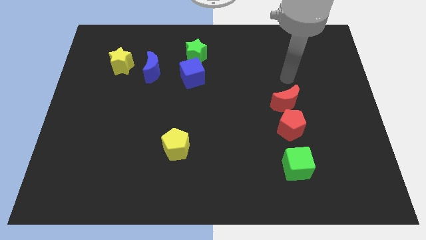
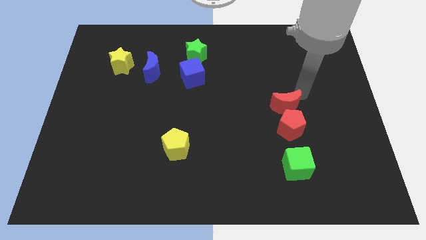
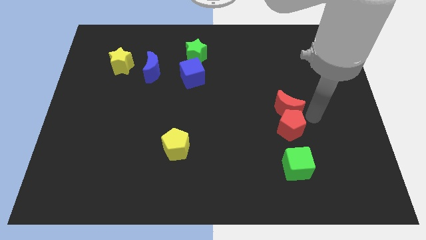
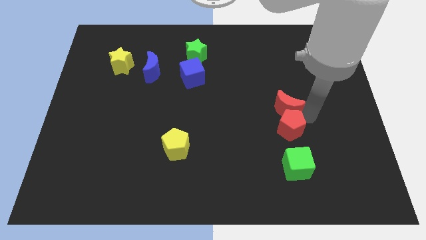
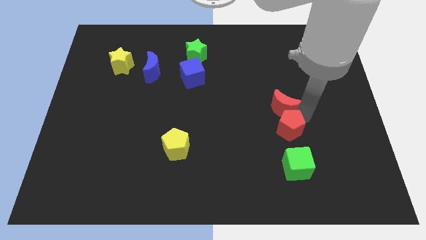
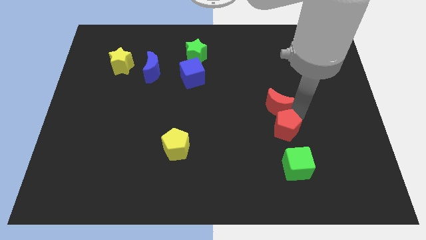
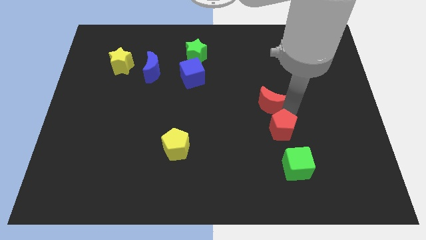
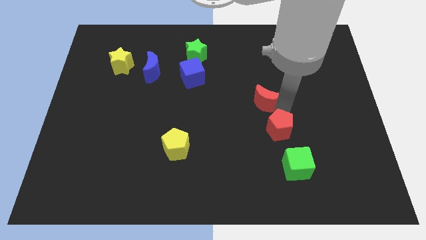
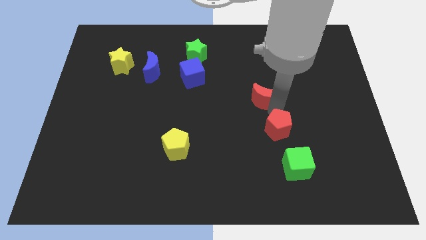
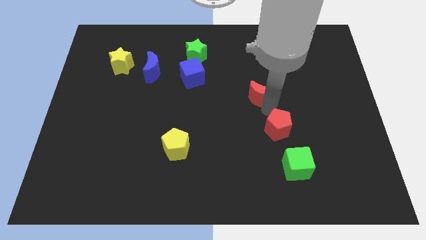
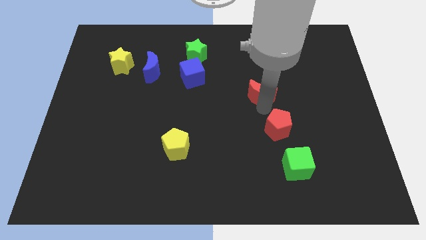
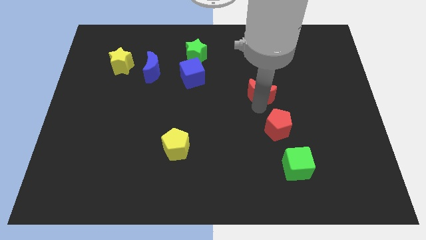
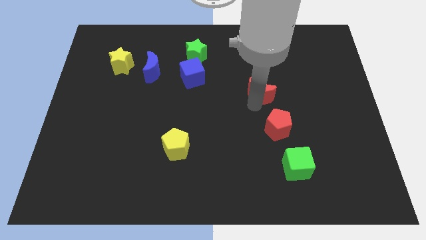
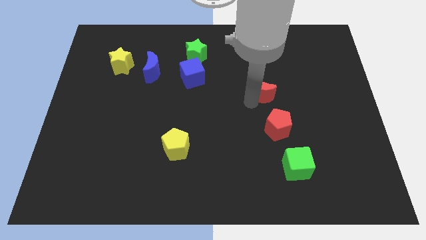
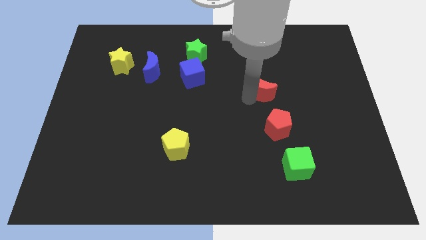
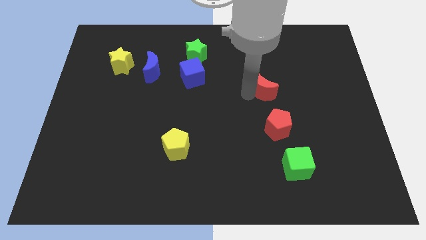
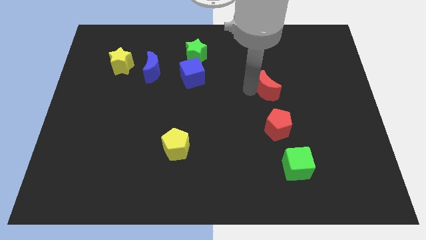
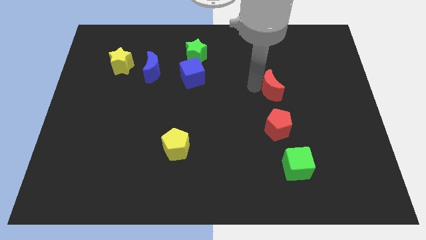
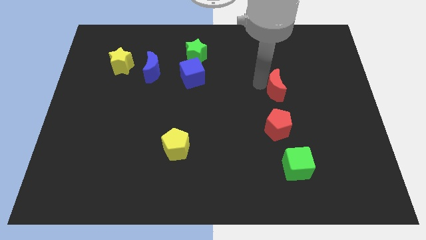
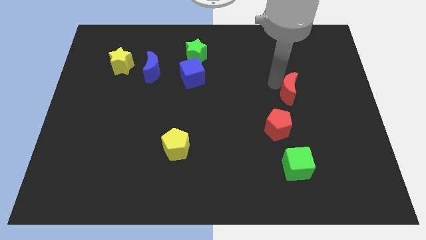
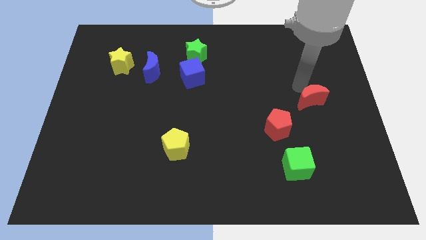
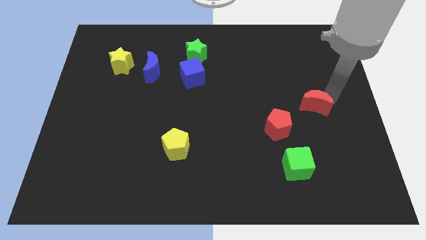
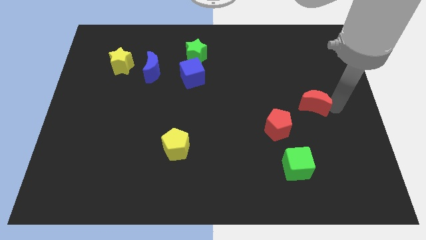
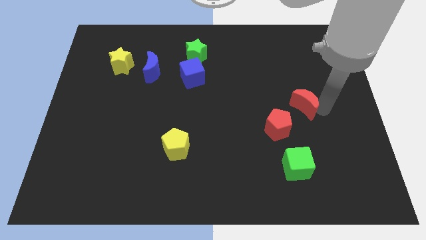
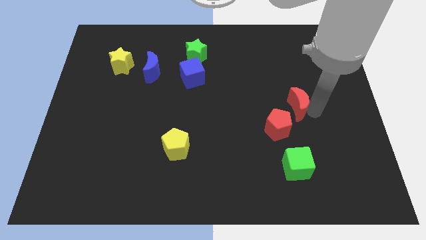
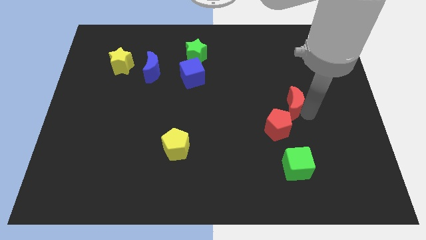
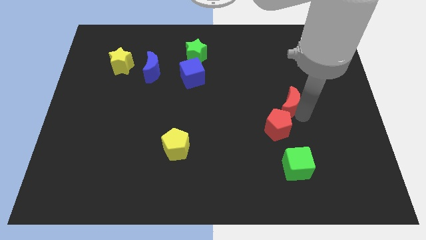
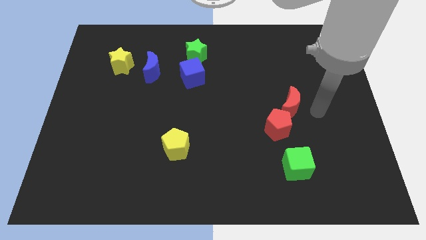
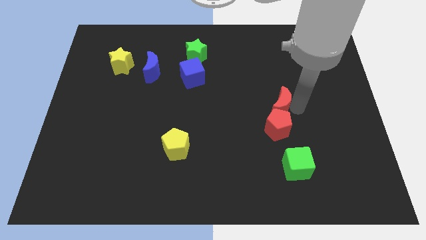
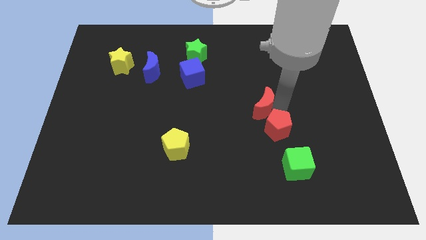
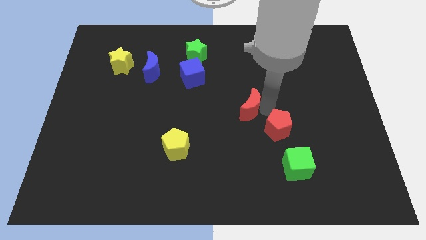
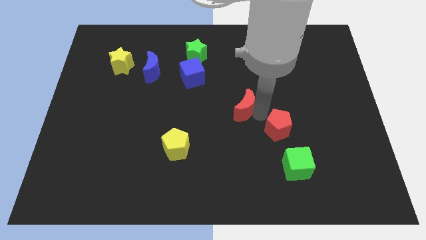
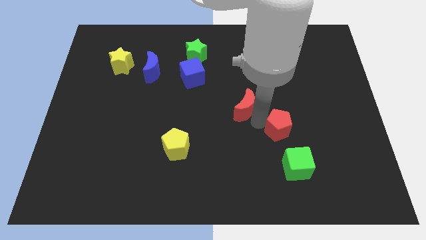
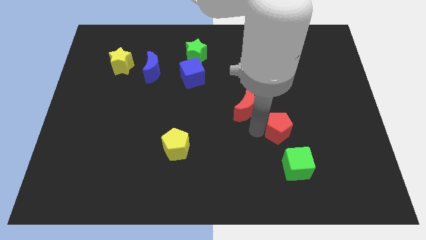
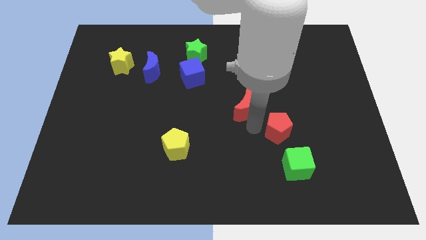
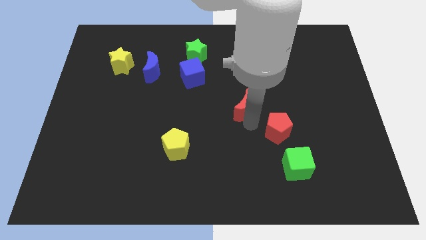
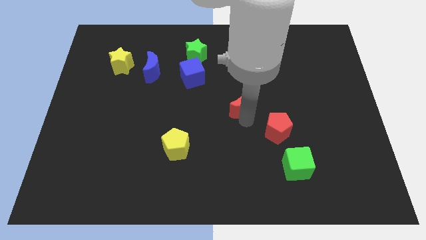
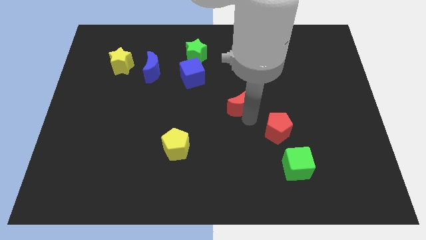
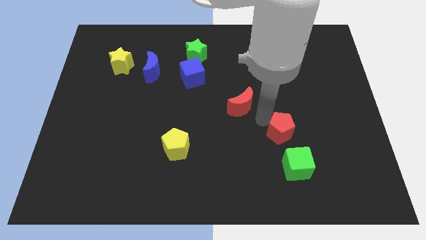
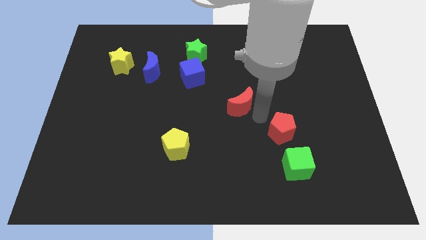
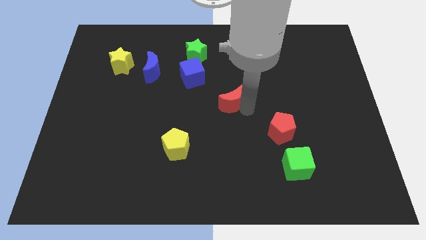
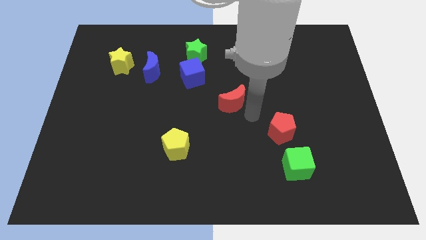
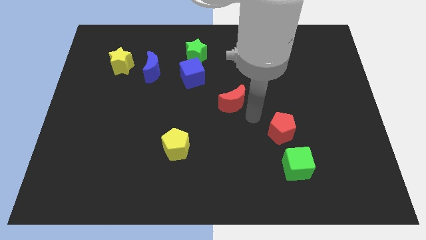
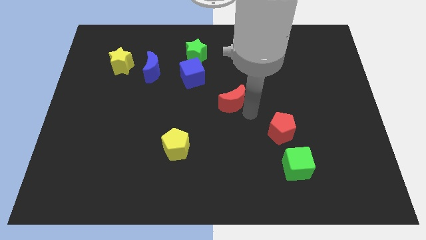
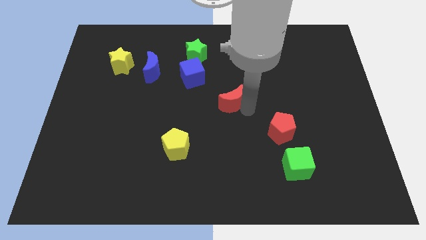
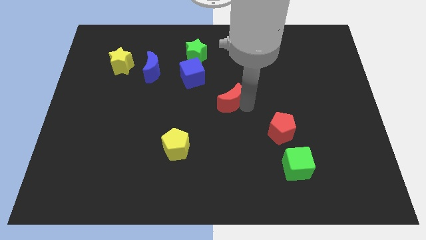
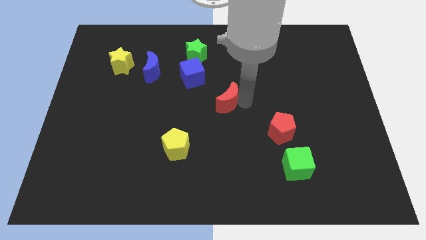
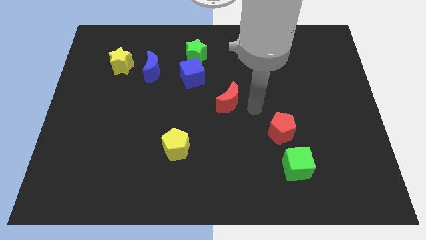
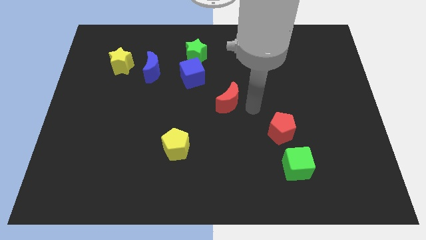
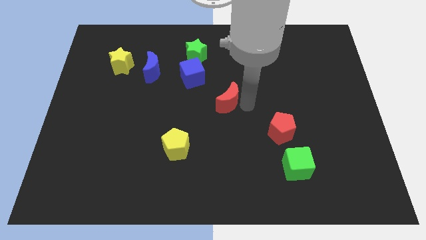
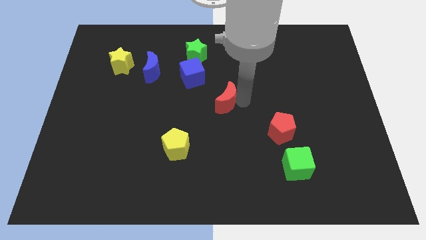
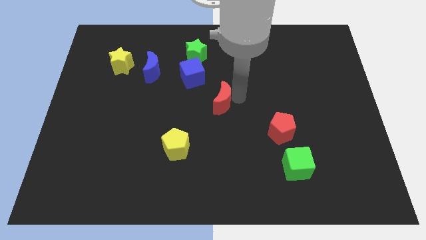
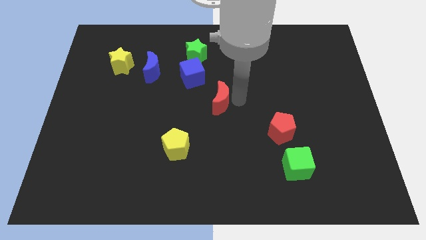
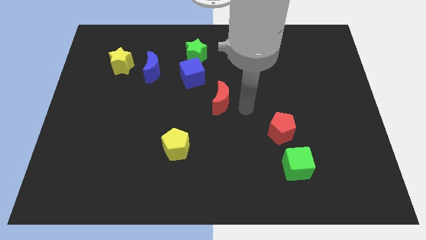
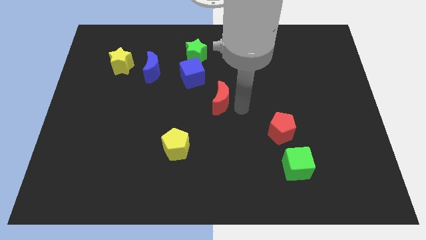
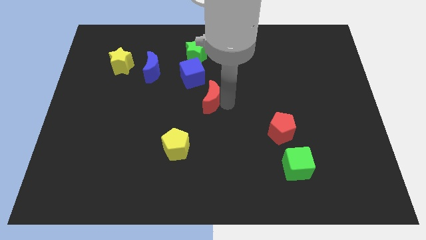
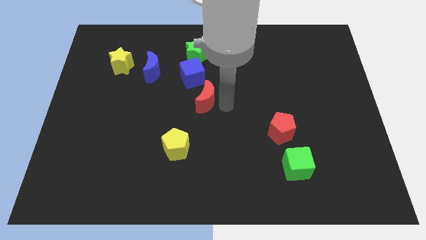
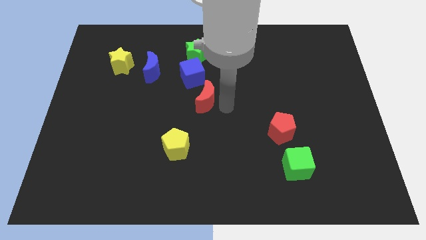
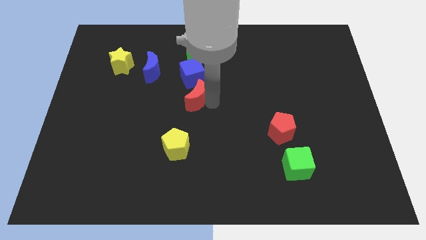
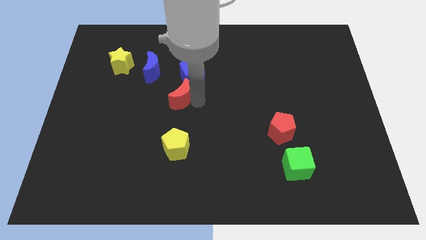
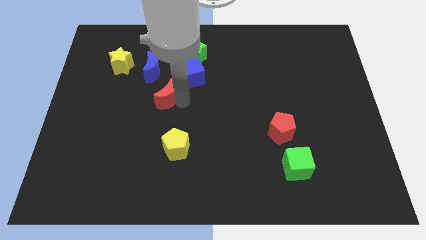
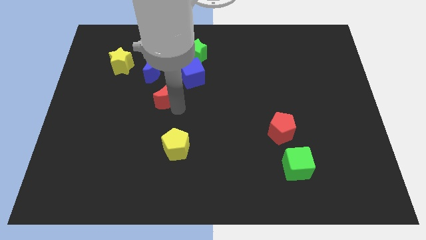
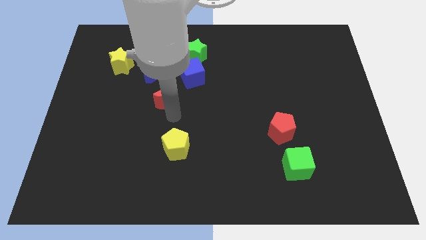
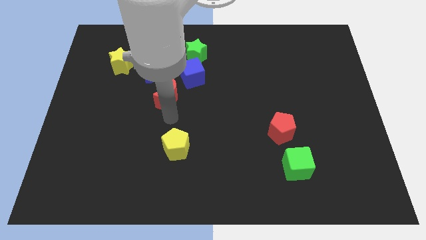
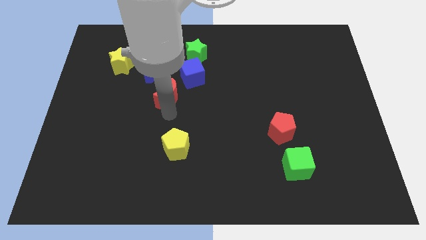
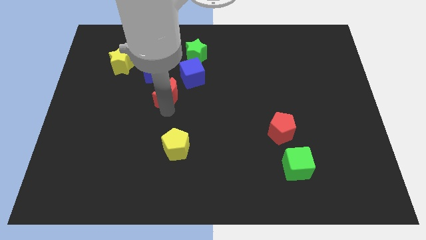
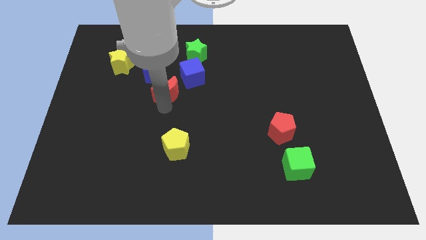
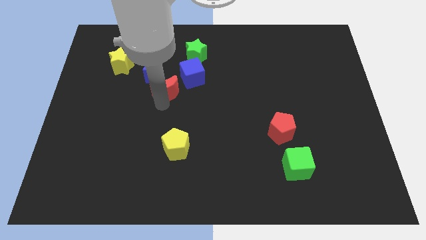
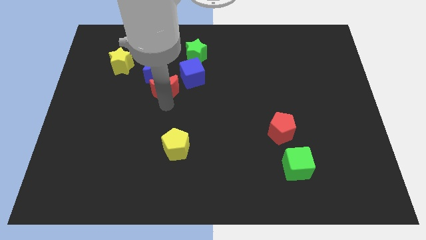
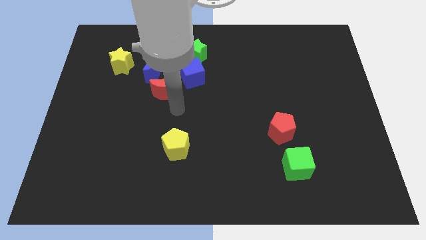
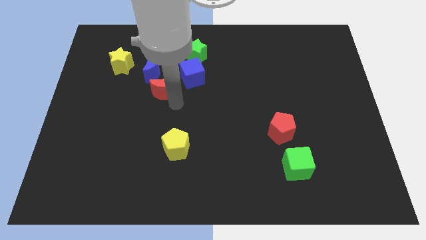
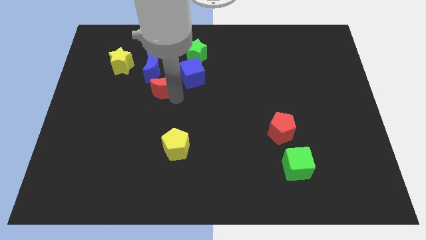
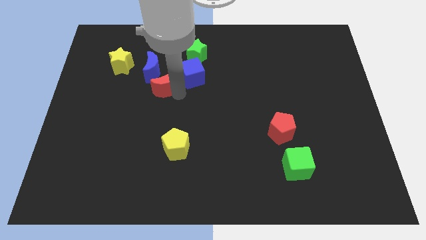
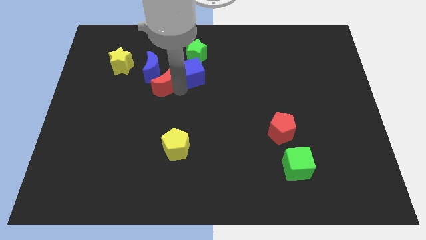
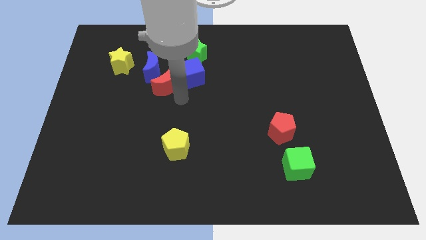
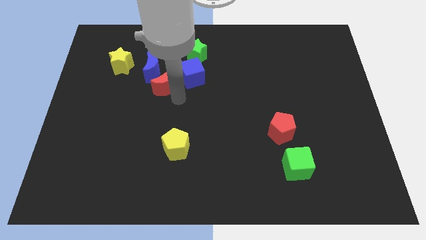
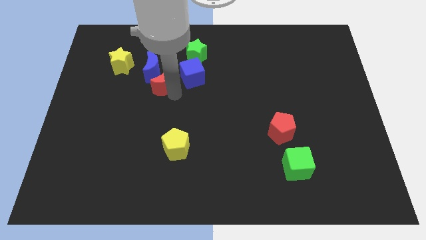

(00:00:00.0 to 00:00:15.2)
push the red moon next to the blue moon
